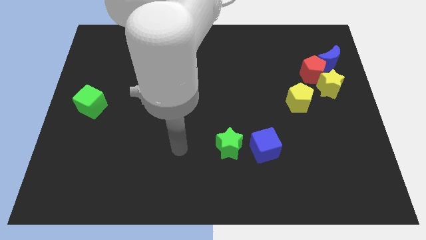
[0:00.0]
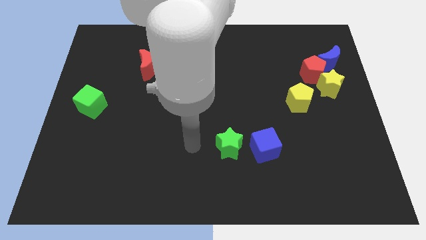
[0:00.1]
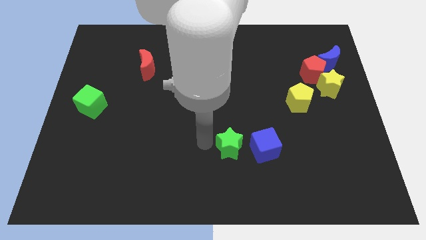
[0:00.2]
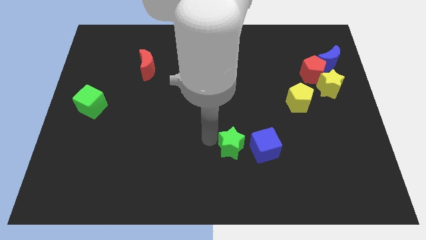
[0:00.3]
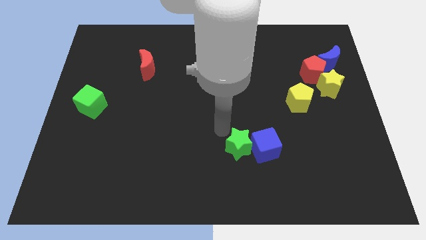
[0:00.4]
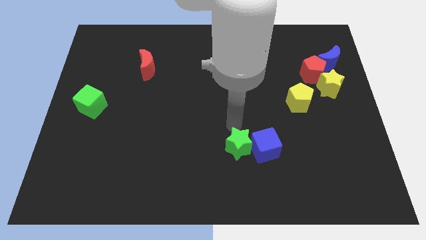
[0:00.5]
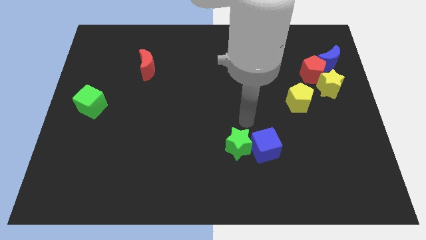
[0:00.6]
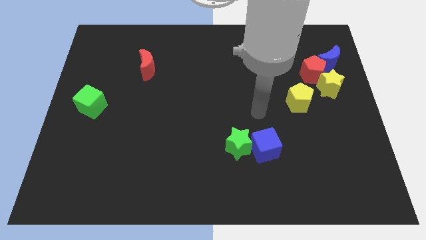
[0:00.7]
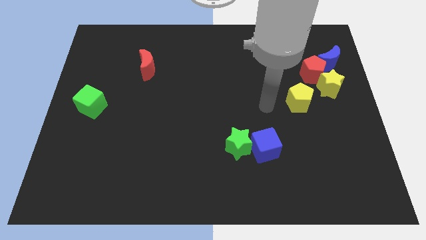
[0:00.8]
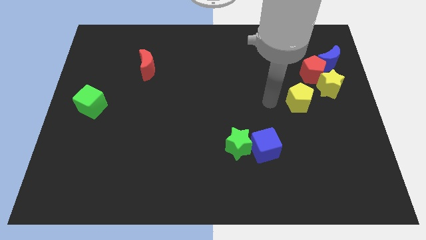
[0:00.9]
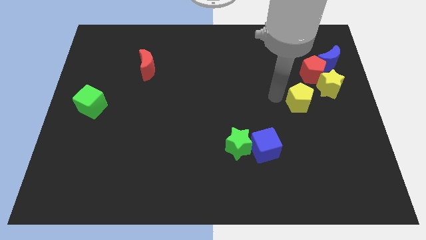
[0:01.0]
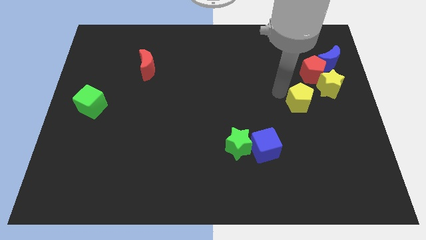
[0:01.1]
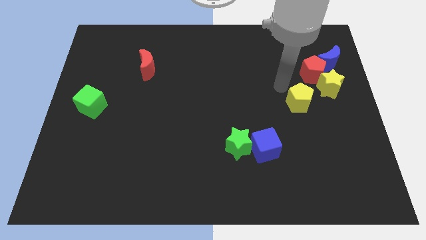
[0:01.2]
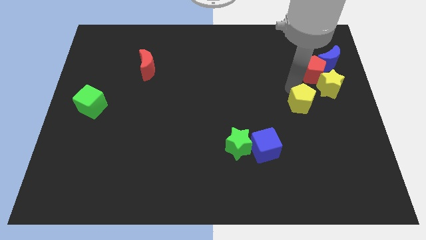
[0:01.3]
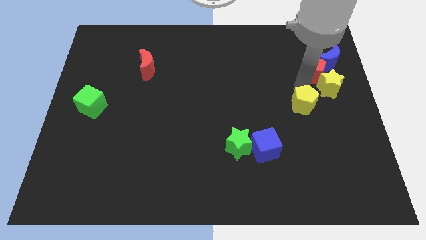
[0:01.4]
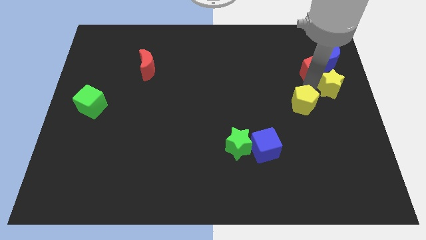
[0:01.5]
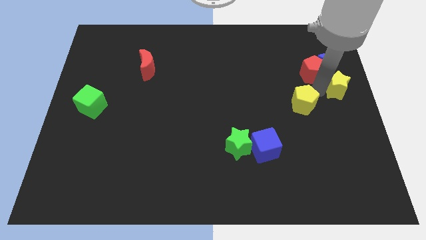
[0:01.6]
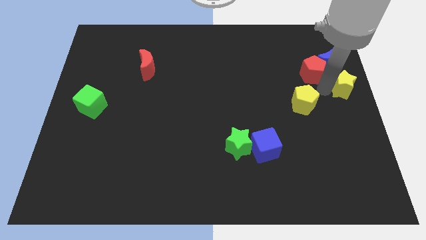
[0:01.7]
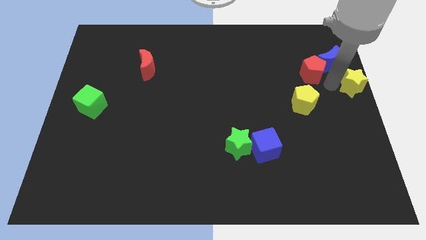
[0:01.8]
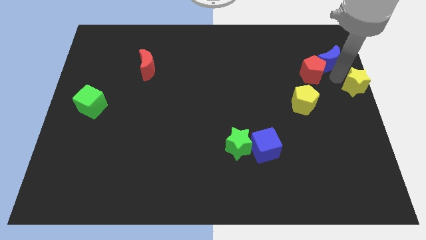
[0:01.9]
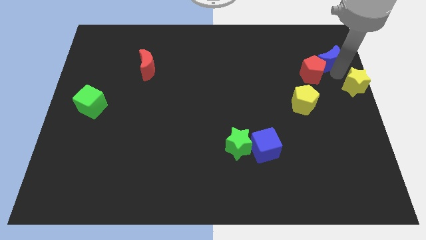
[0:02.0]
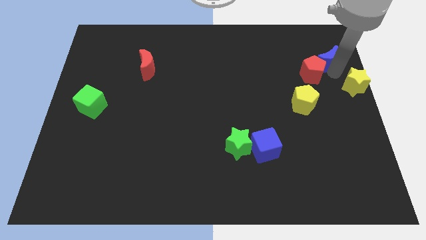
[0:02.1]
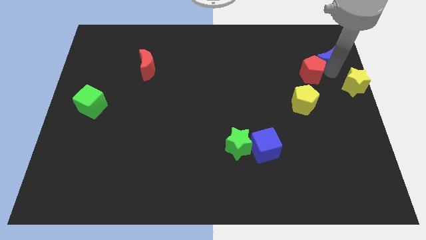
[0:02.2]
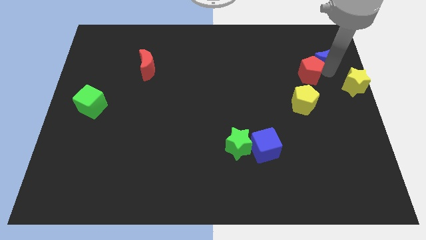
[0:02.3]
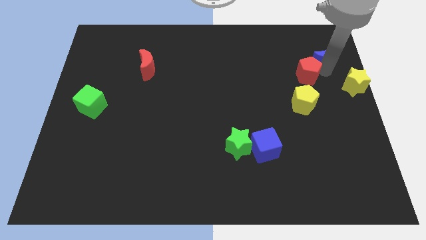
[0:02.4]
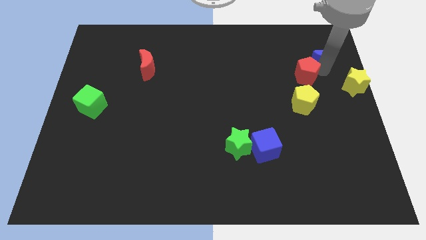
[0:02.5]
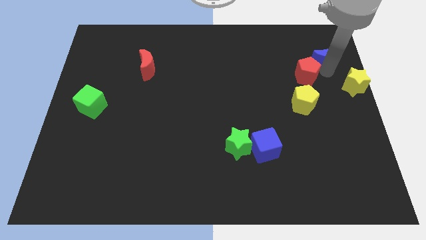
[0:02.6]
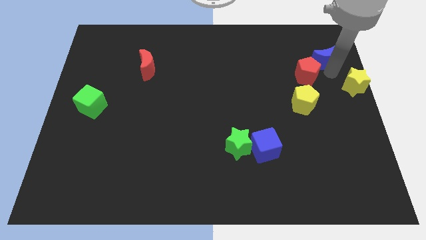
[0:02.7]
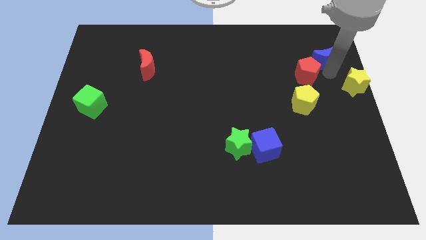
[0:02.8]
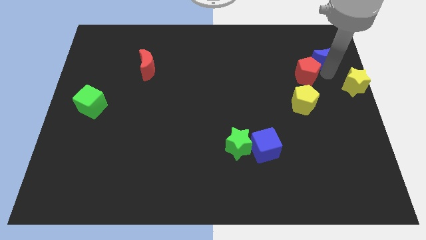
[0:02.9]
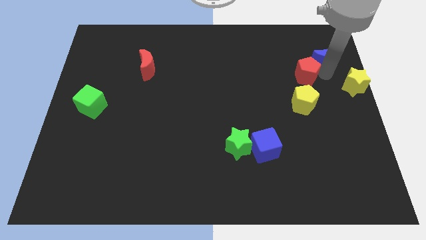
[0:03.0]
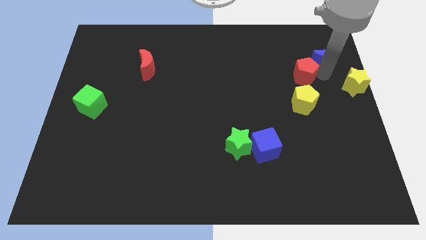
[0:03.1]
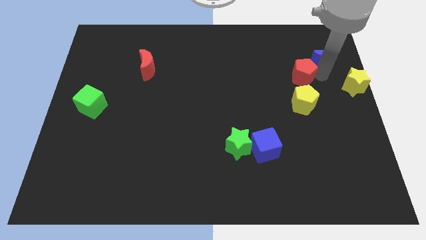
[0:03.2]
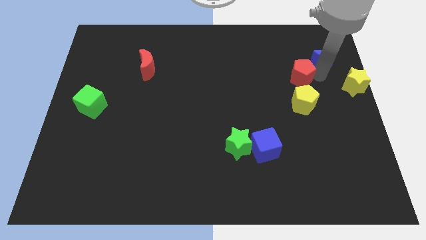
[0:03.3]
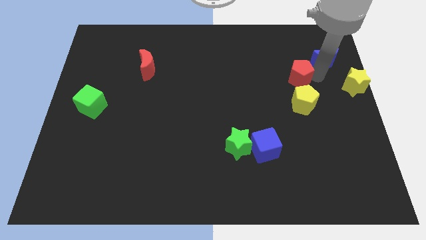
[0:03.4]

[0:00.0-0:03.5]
pull the red pentagon apart from the blue moon and yellow star

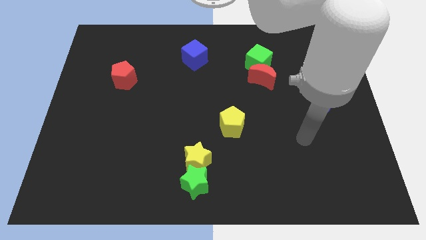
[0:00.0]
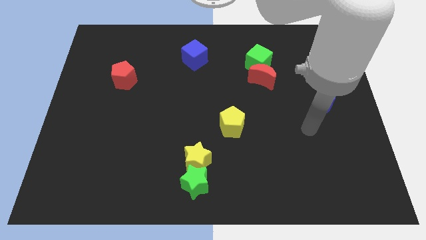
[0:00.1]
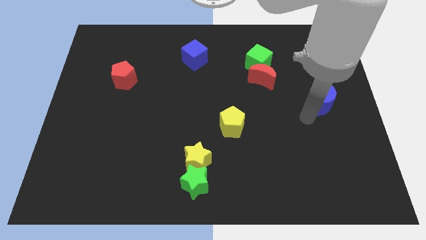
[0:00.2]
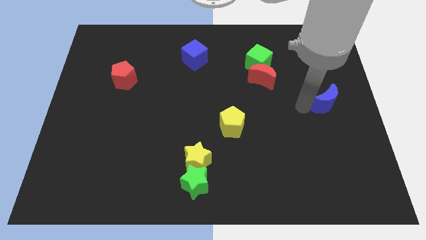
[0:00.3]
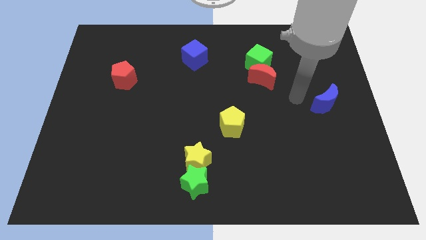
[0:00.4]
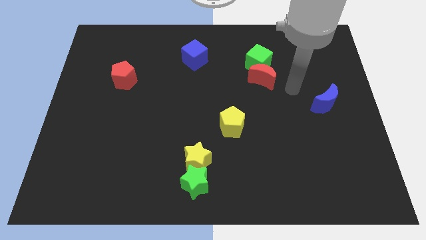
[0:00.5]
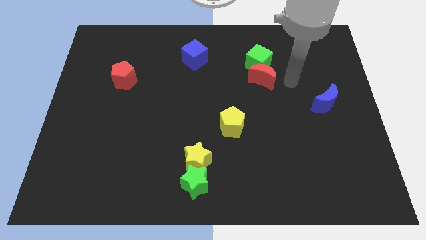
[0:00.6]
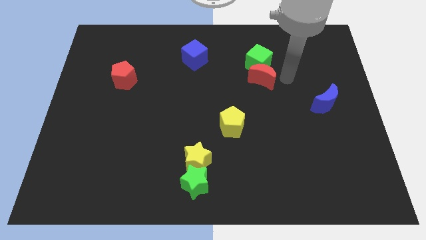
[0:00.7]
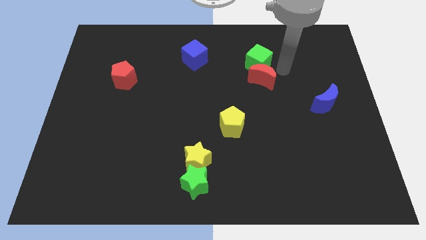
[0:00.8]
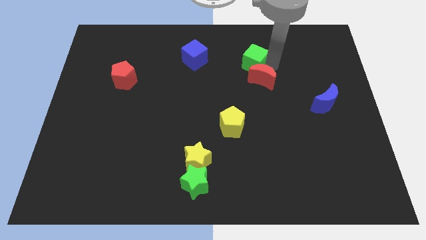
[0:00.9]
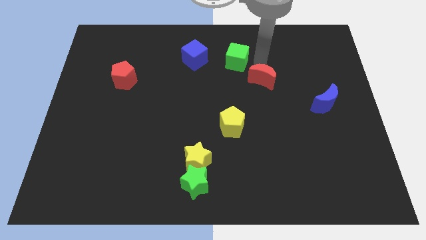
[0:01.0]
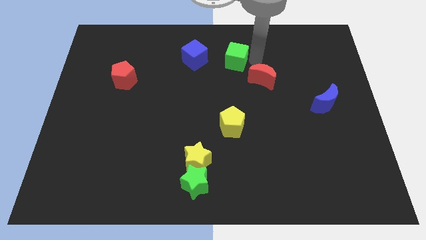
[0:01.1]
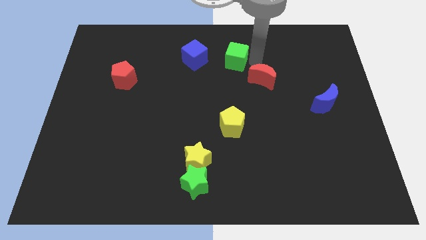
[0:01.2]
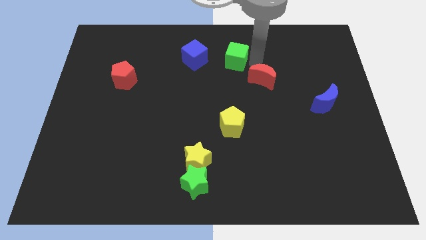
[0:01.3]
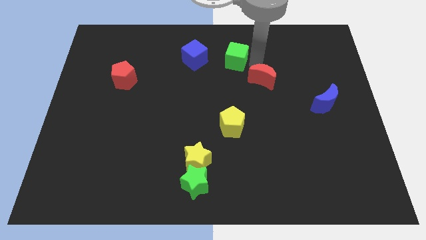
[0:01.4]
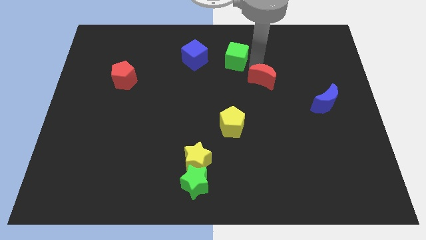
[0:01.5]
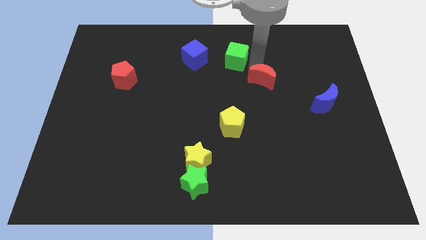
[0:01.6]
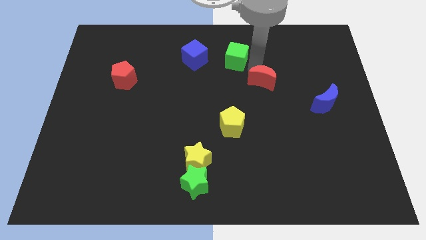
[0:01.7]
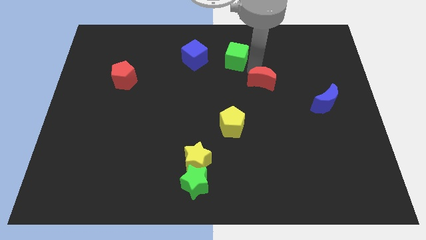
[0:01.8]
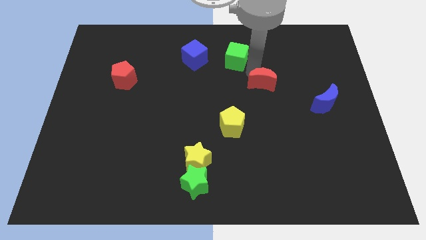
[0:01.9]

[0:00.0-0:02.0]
move the red moon away from the green cube

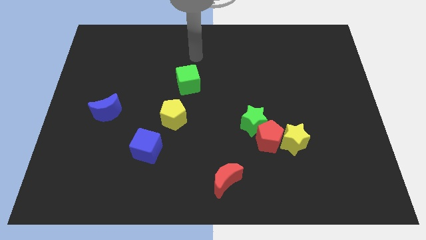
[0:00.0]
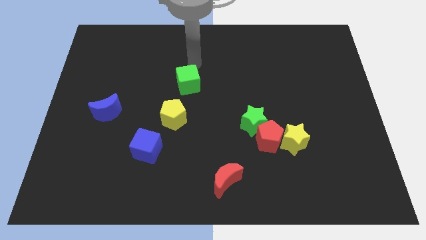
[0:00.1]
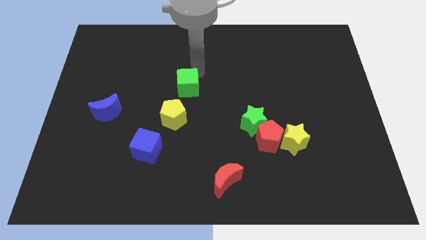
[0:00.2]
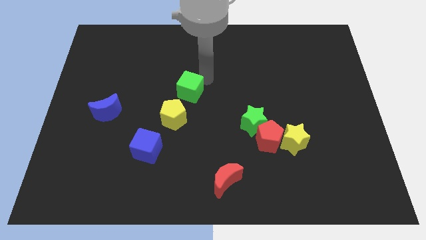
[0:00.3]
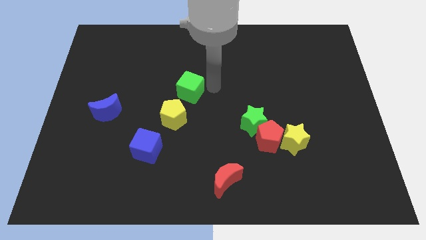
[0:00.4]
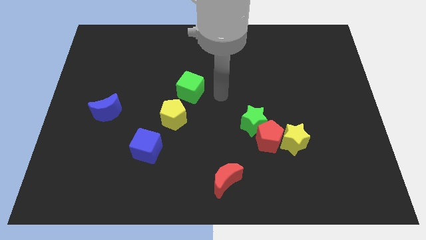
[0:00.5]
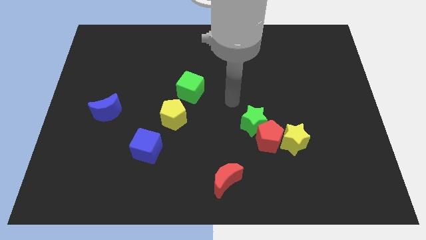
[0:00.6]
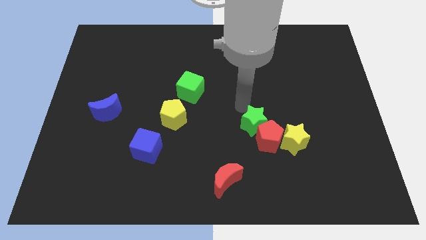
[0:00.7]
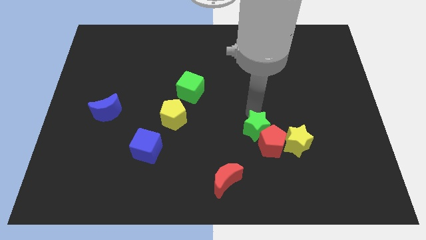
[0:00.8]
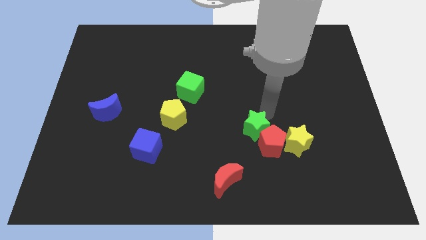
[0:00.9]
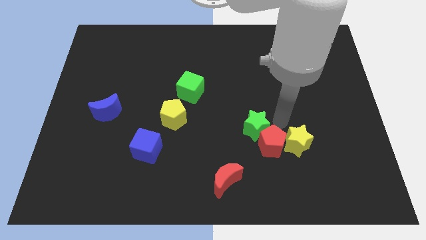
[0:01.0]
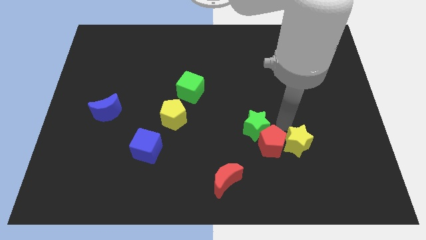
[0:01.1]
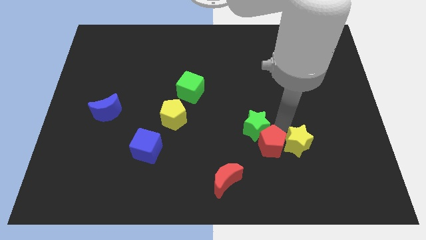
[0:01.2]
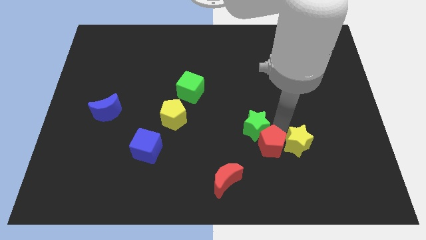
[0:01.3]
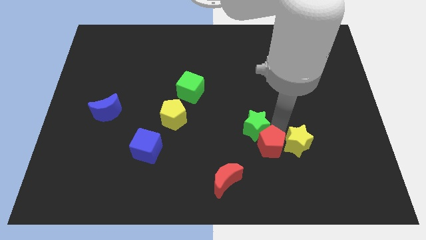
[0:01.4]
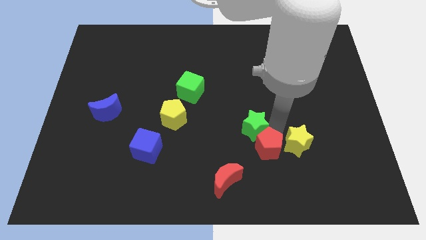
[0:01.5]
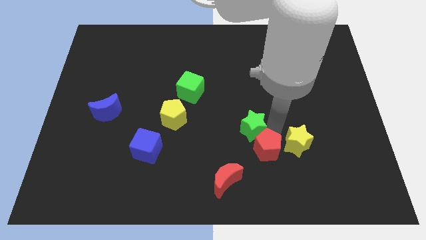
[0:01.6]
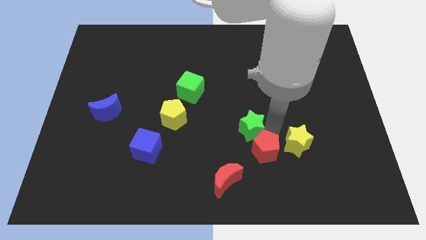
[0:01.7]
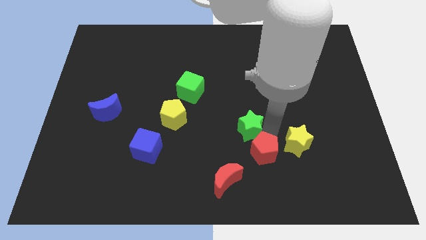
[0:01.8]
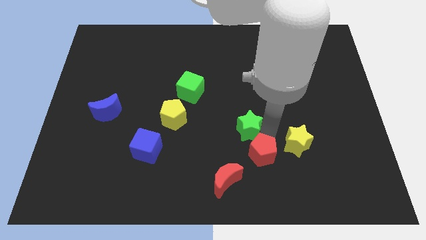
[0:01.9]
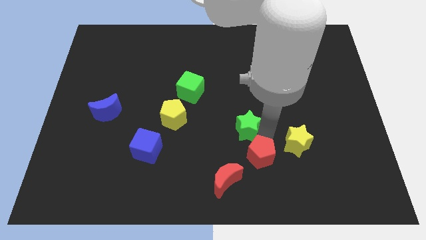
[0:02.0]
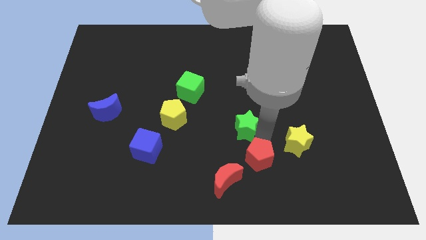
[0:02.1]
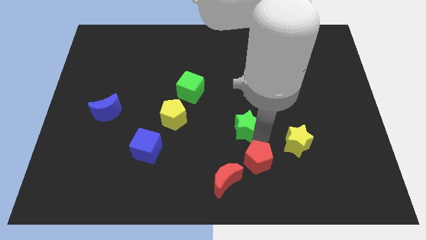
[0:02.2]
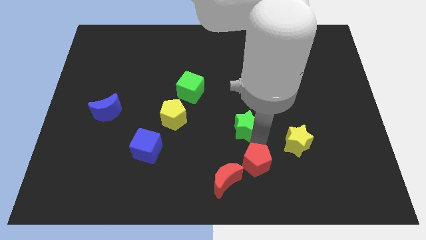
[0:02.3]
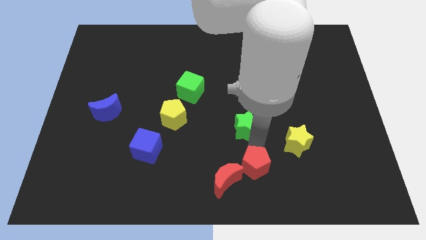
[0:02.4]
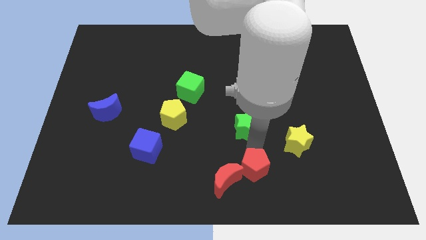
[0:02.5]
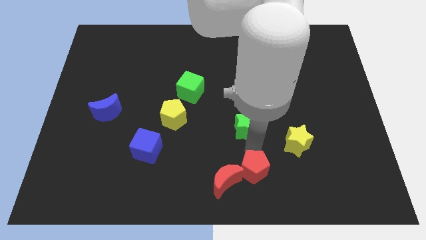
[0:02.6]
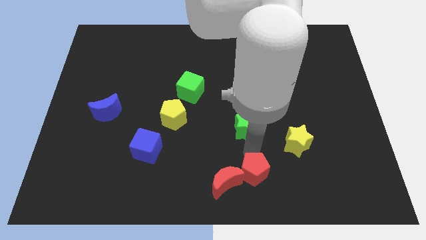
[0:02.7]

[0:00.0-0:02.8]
separate the red pentagon from the green star and yellow star

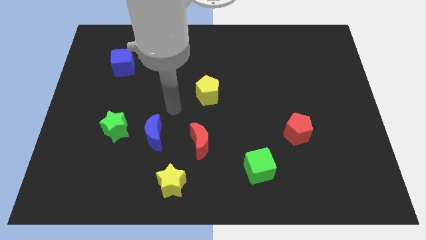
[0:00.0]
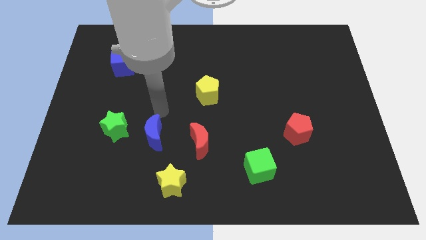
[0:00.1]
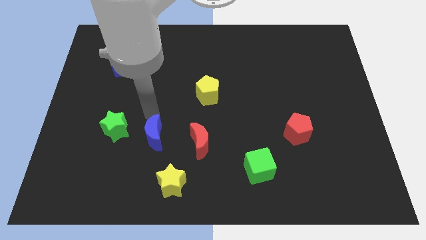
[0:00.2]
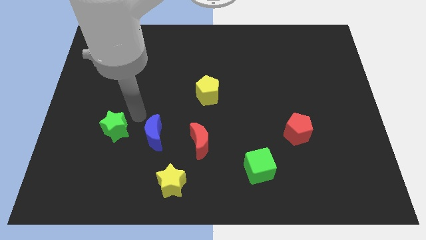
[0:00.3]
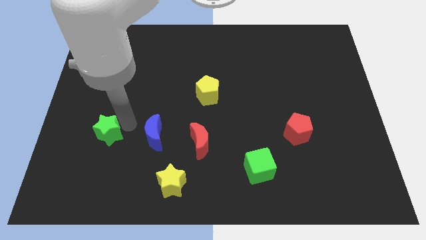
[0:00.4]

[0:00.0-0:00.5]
separate the blue moon from the green star

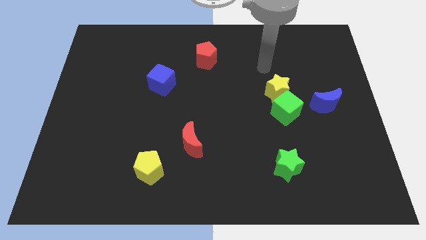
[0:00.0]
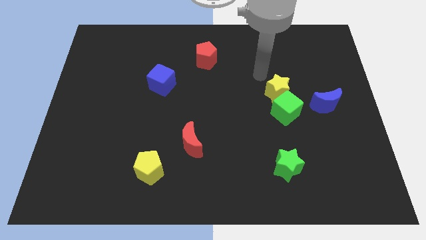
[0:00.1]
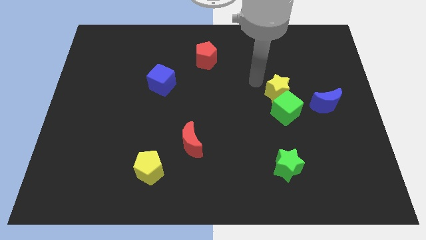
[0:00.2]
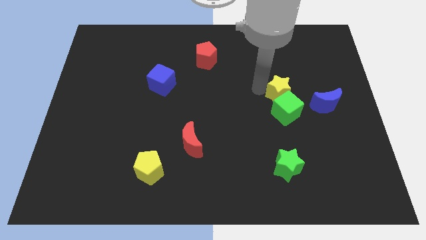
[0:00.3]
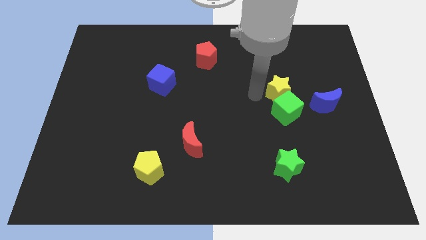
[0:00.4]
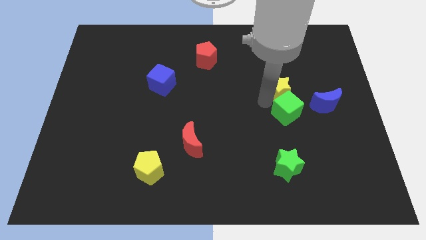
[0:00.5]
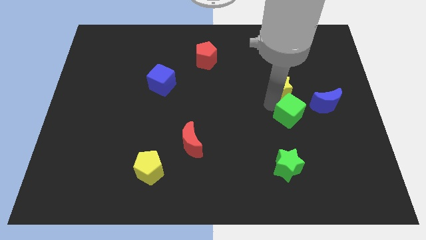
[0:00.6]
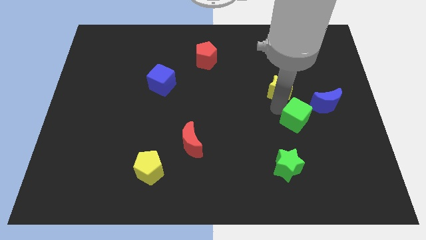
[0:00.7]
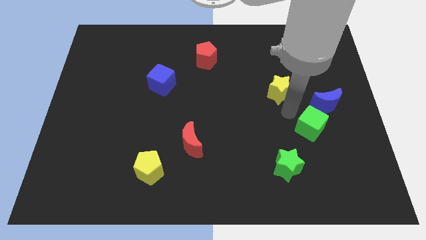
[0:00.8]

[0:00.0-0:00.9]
separate the yellow star from the green cube
